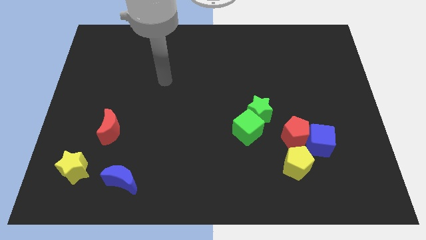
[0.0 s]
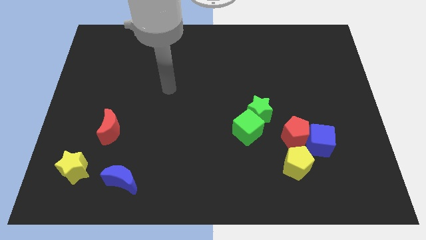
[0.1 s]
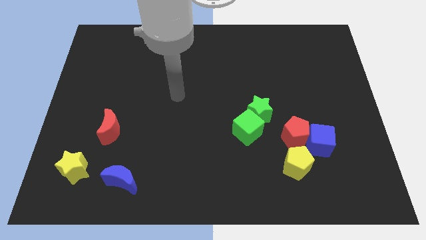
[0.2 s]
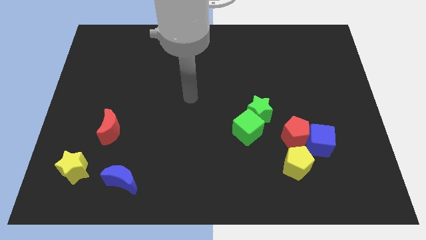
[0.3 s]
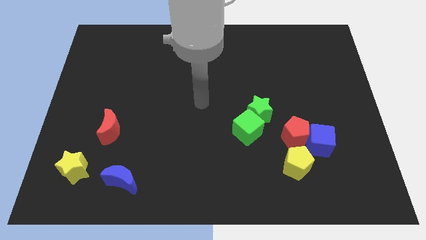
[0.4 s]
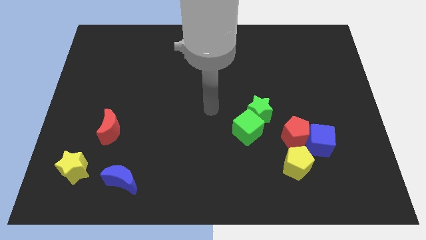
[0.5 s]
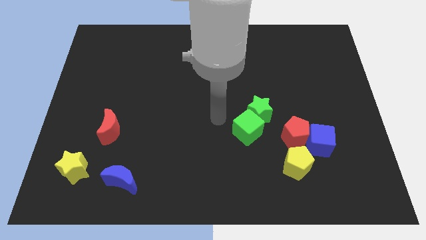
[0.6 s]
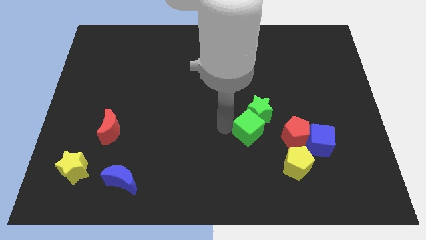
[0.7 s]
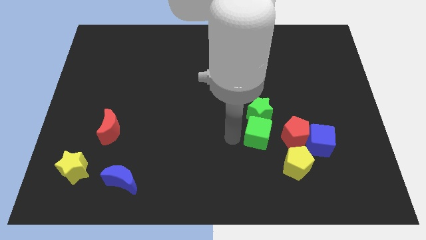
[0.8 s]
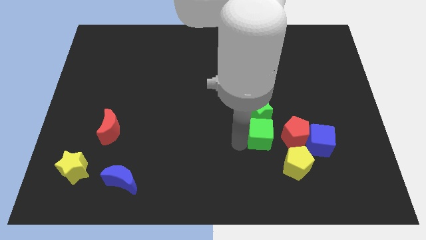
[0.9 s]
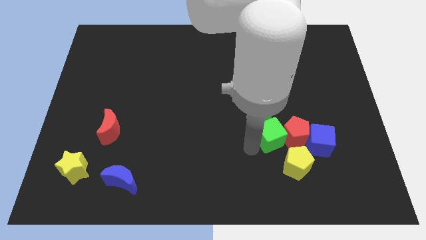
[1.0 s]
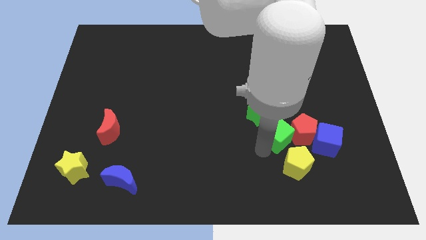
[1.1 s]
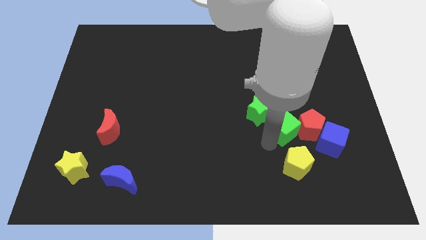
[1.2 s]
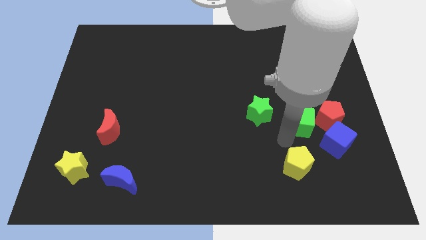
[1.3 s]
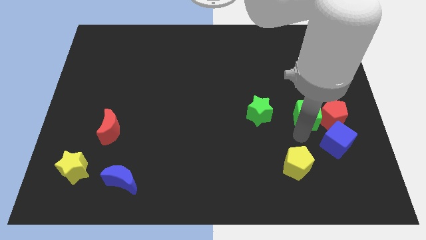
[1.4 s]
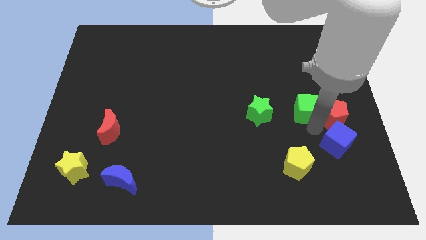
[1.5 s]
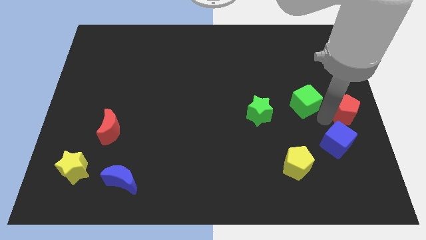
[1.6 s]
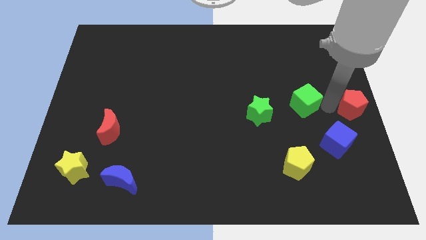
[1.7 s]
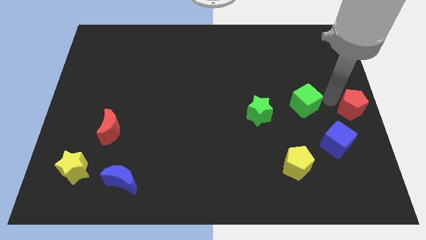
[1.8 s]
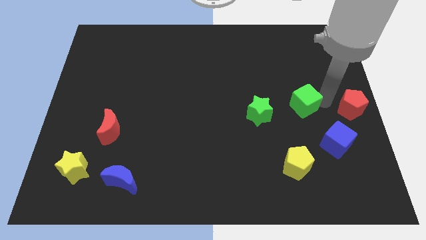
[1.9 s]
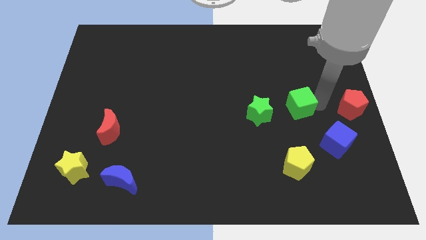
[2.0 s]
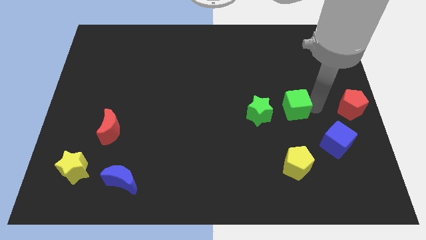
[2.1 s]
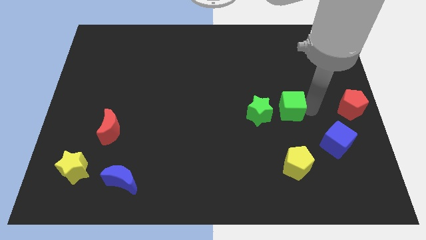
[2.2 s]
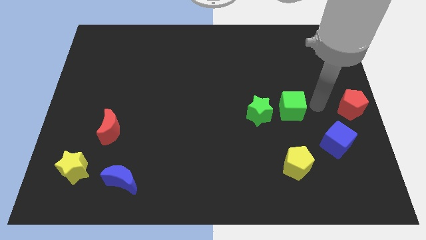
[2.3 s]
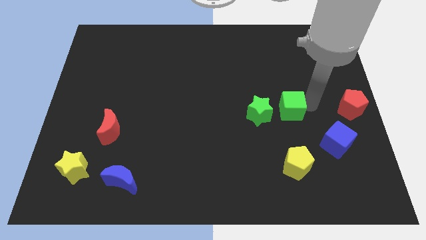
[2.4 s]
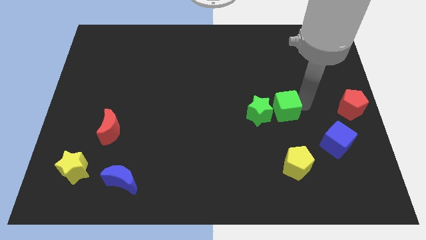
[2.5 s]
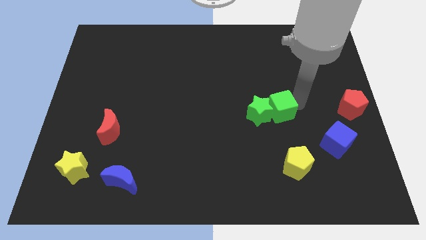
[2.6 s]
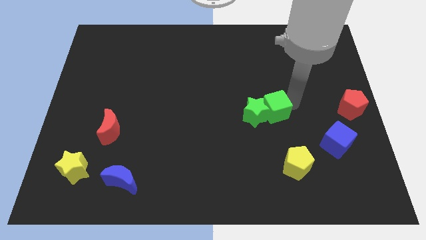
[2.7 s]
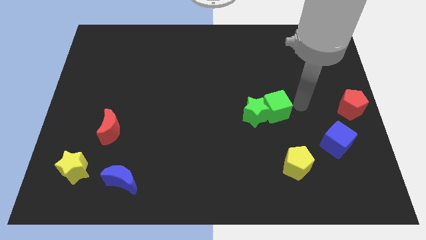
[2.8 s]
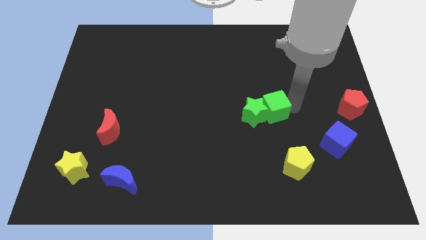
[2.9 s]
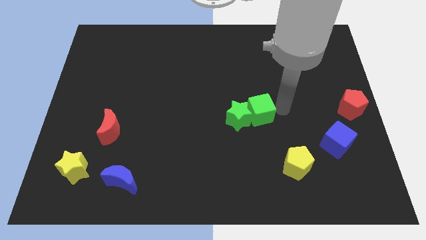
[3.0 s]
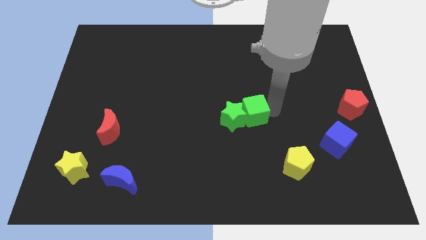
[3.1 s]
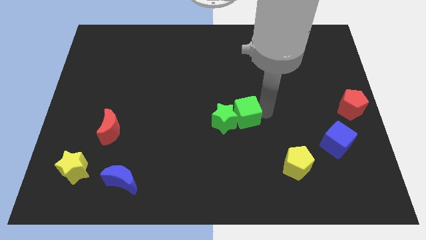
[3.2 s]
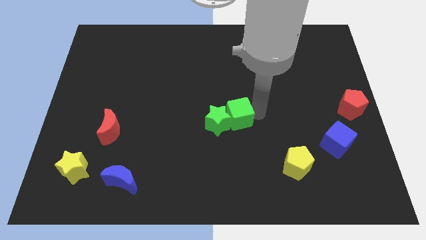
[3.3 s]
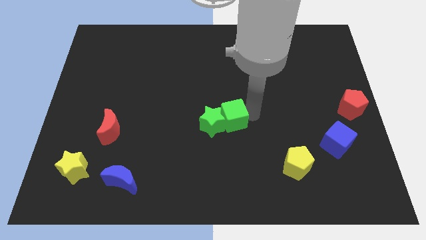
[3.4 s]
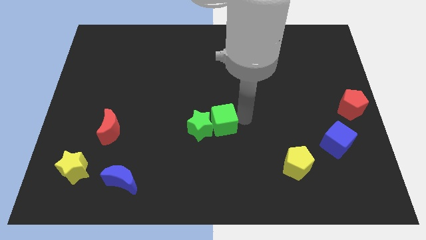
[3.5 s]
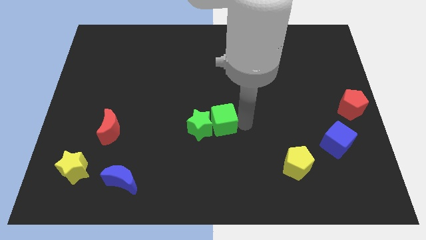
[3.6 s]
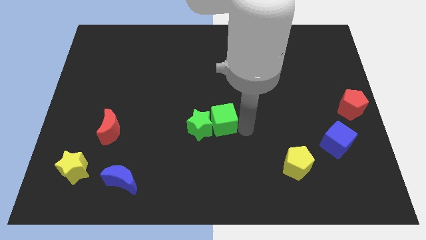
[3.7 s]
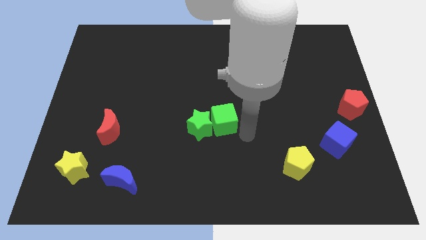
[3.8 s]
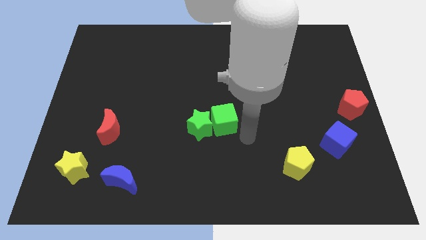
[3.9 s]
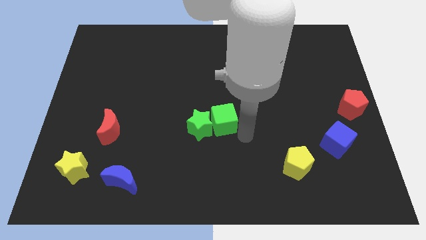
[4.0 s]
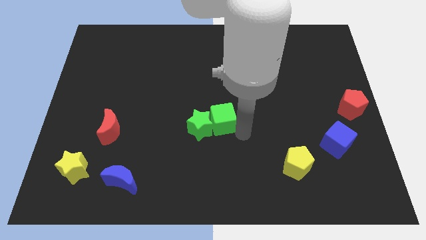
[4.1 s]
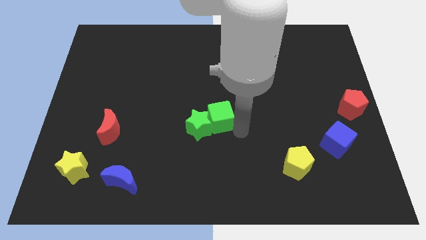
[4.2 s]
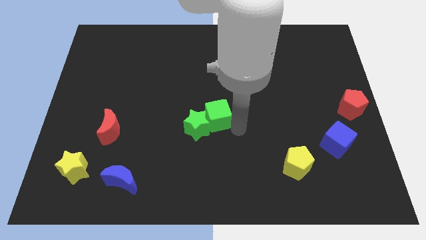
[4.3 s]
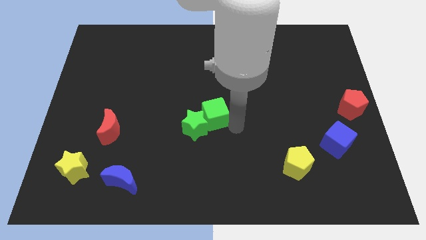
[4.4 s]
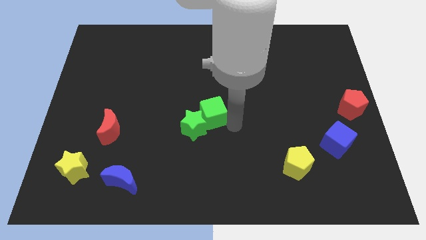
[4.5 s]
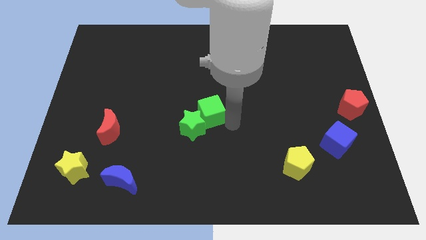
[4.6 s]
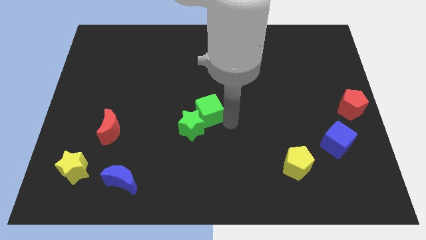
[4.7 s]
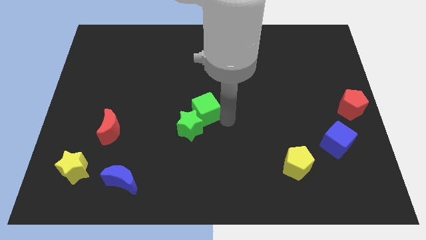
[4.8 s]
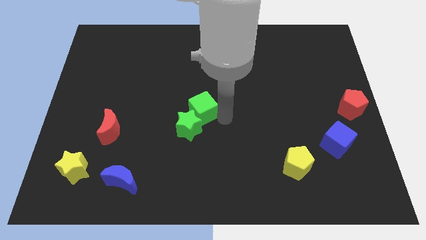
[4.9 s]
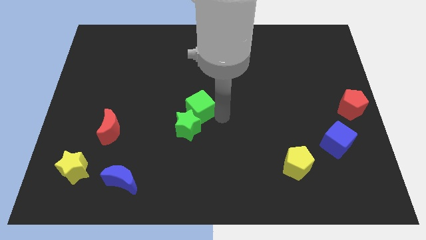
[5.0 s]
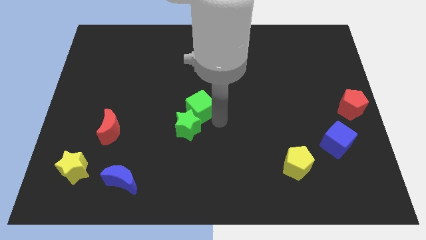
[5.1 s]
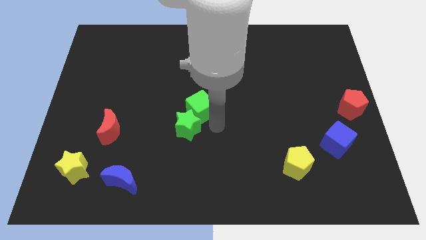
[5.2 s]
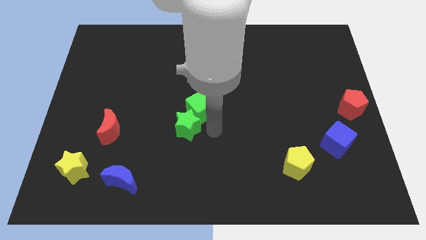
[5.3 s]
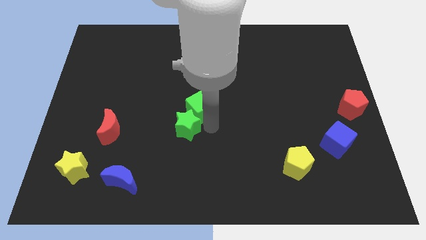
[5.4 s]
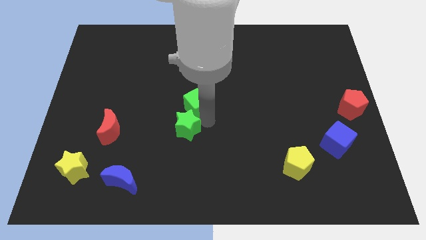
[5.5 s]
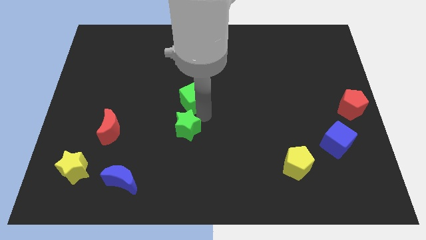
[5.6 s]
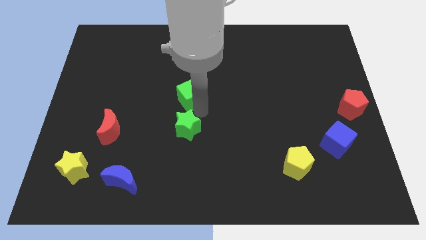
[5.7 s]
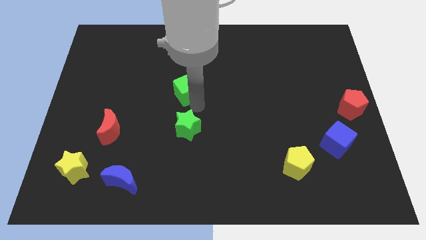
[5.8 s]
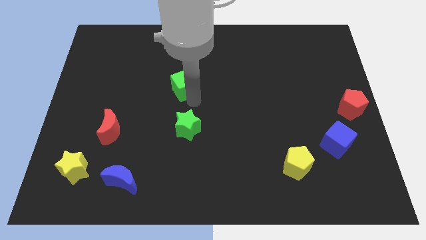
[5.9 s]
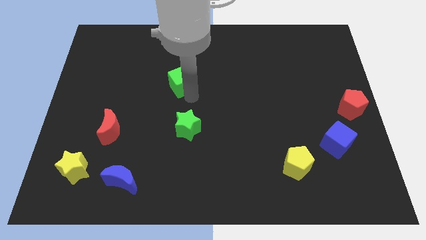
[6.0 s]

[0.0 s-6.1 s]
slide the green cube diagonally up and to the left

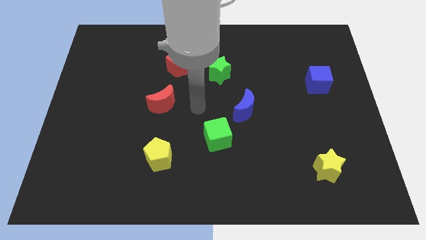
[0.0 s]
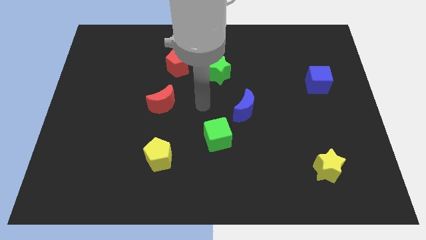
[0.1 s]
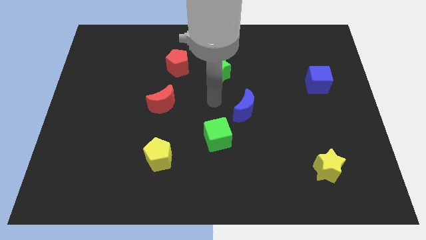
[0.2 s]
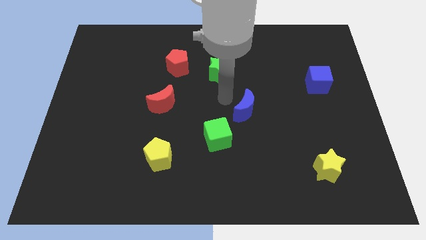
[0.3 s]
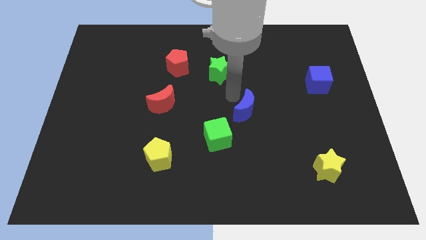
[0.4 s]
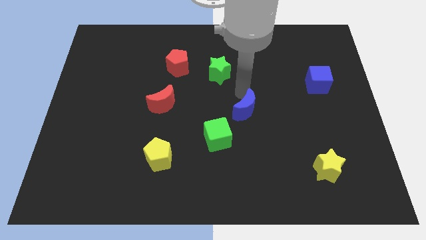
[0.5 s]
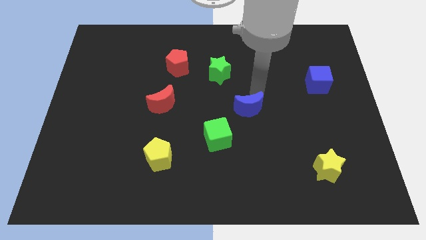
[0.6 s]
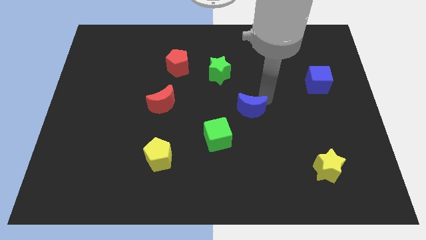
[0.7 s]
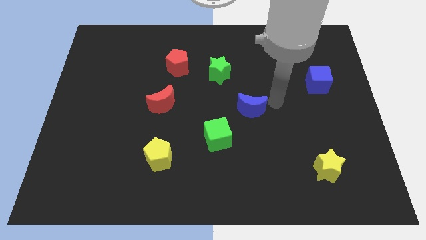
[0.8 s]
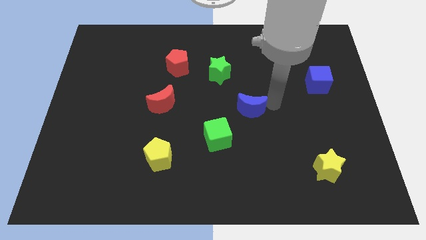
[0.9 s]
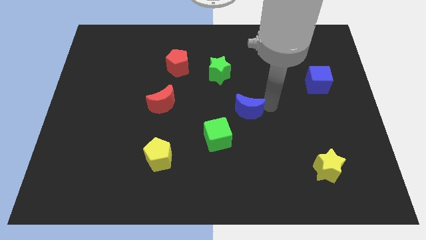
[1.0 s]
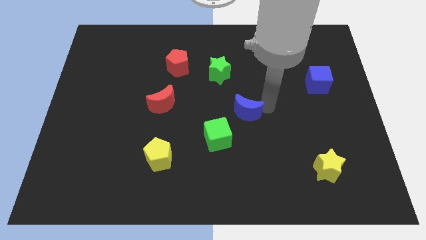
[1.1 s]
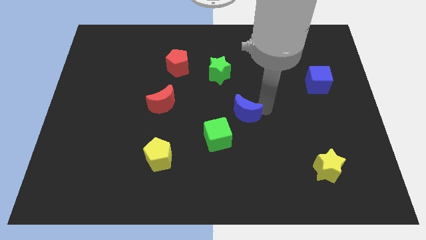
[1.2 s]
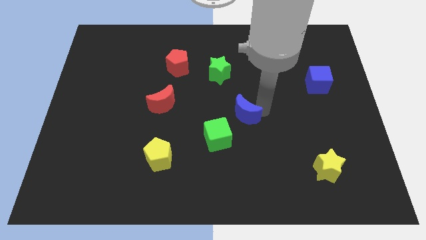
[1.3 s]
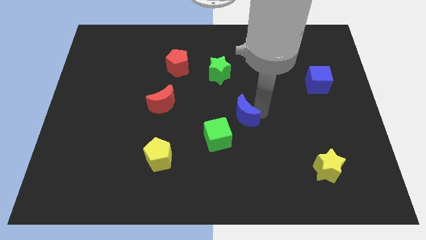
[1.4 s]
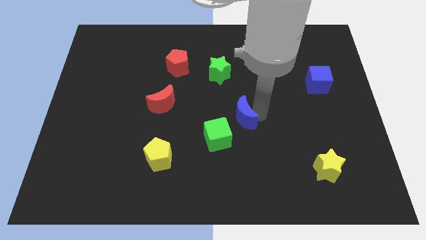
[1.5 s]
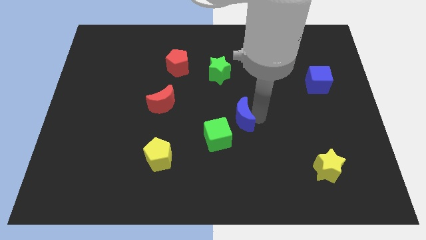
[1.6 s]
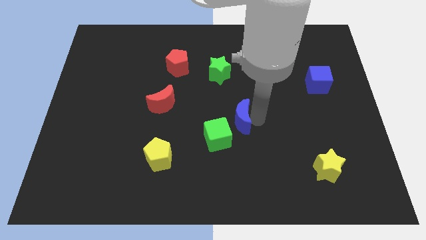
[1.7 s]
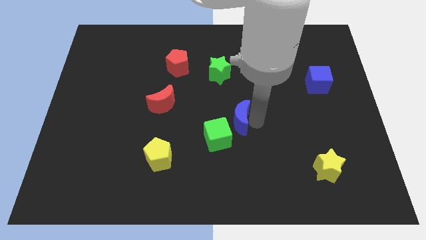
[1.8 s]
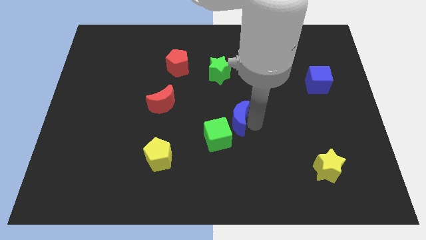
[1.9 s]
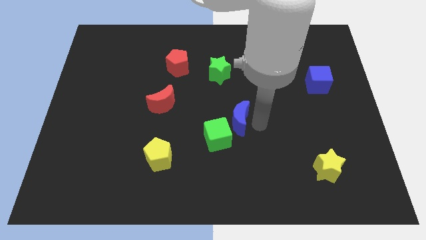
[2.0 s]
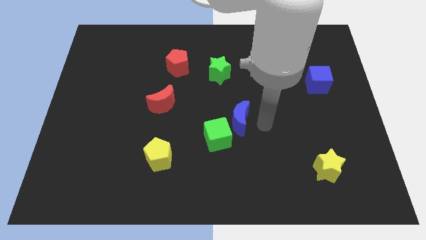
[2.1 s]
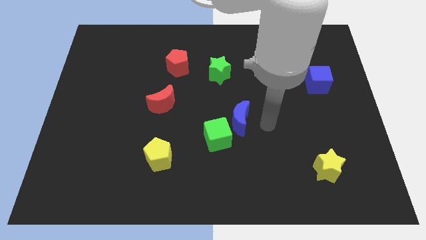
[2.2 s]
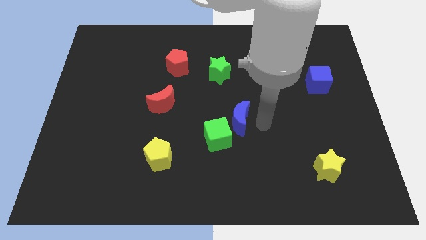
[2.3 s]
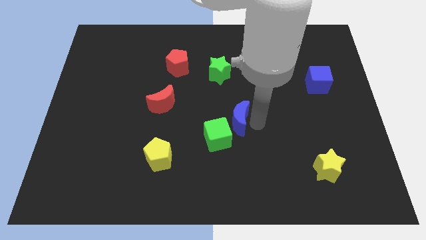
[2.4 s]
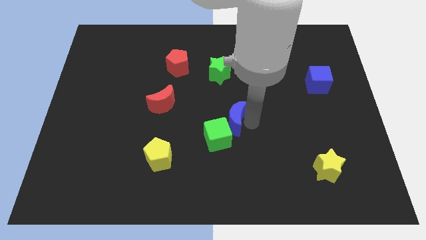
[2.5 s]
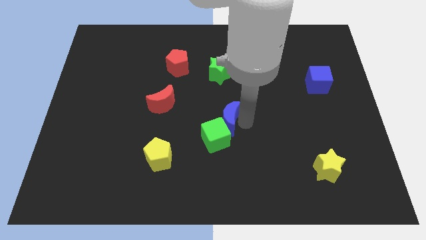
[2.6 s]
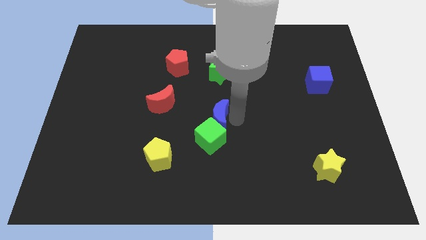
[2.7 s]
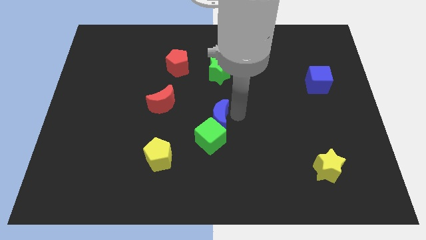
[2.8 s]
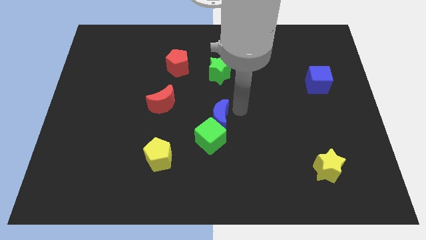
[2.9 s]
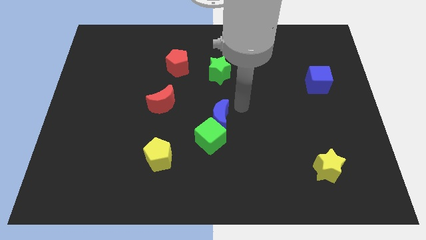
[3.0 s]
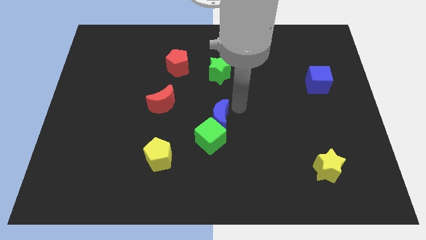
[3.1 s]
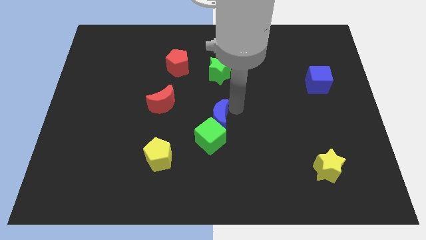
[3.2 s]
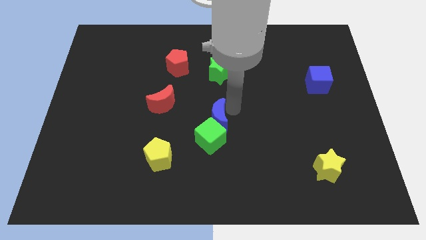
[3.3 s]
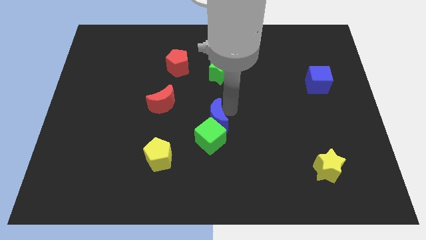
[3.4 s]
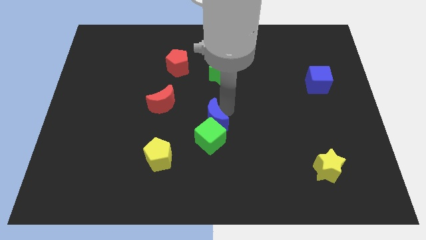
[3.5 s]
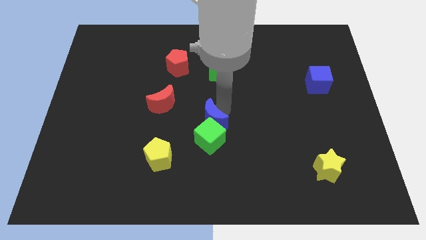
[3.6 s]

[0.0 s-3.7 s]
slightly push the blue moon downwards and then to the left
